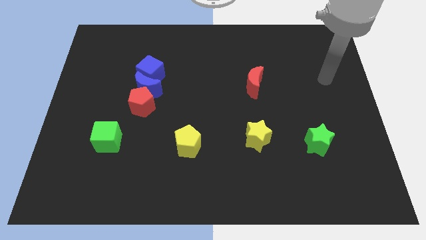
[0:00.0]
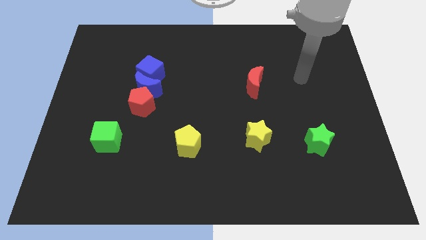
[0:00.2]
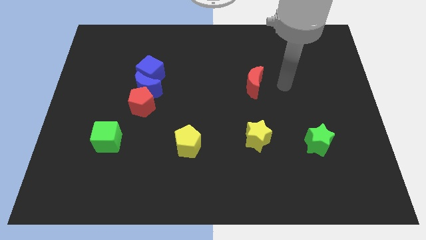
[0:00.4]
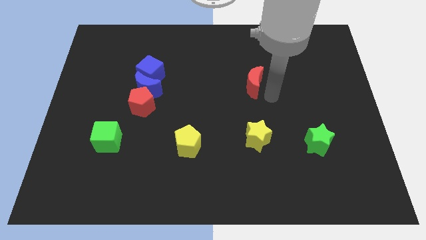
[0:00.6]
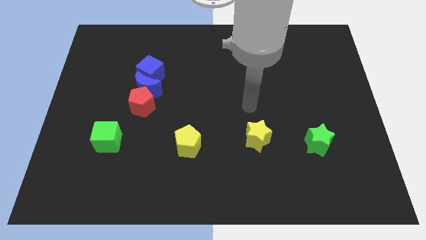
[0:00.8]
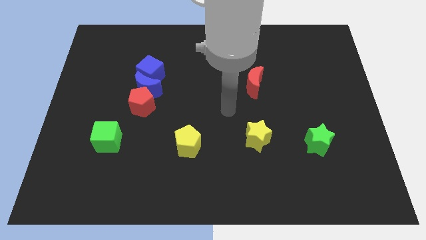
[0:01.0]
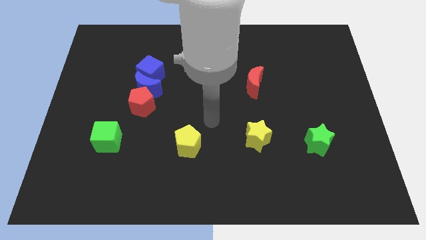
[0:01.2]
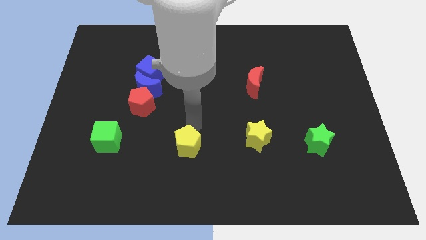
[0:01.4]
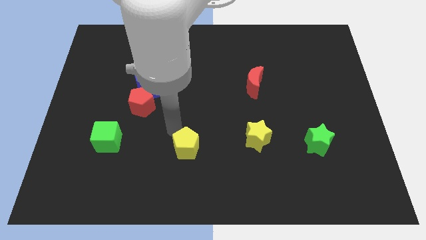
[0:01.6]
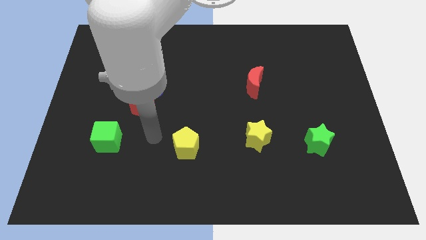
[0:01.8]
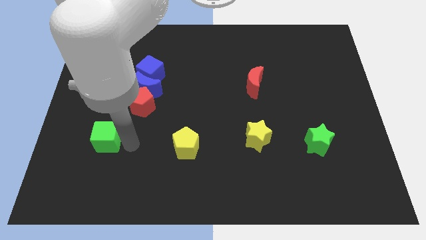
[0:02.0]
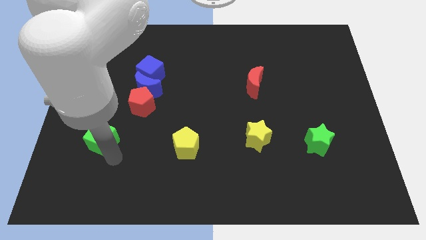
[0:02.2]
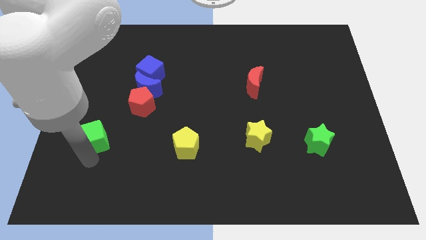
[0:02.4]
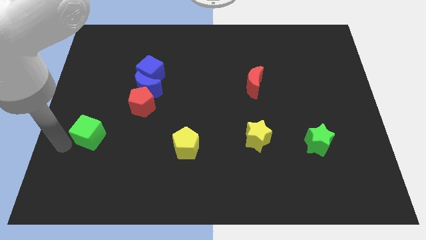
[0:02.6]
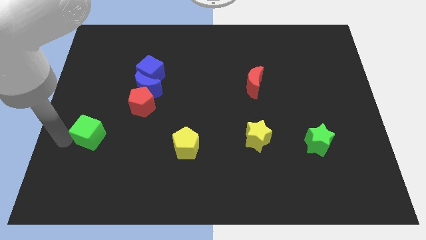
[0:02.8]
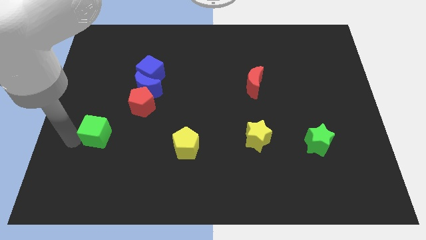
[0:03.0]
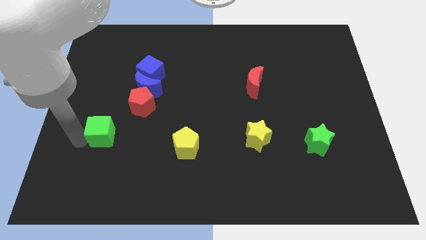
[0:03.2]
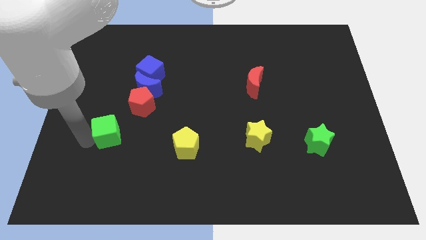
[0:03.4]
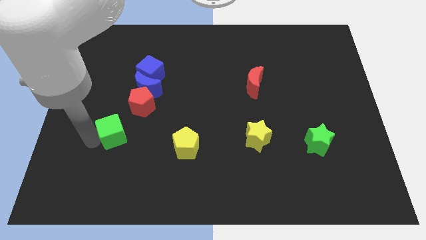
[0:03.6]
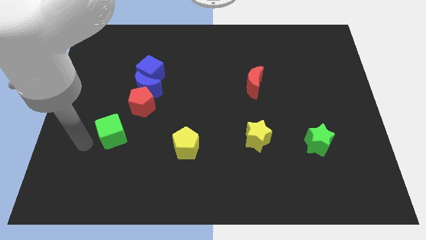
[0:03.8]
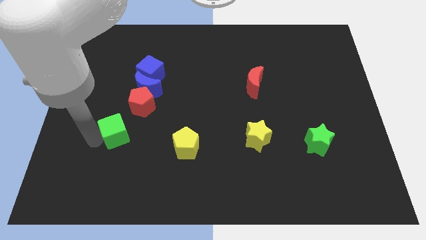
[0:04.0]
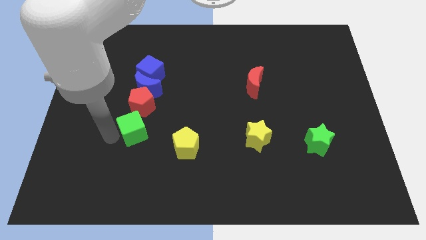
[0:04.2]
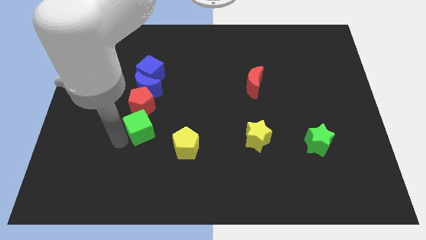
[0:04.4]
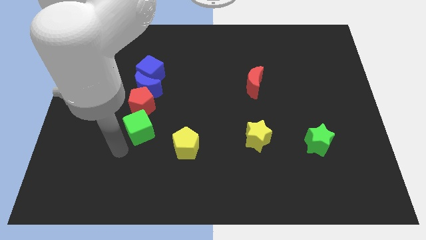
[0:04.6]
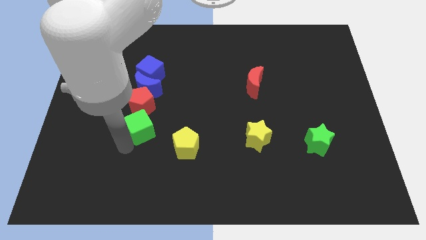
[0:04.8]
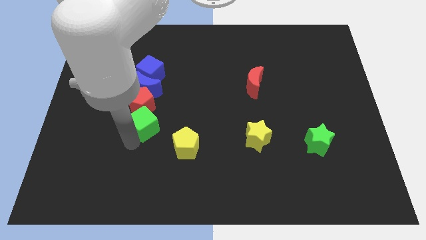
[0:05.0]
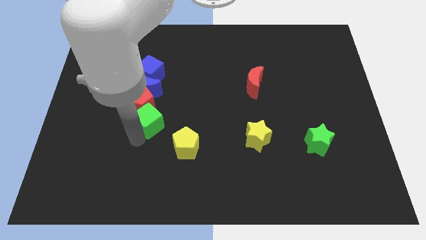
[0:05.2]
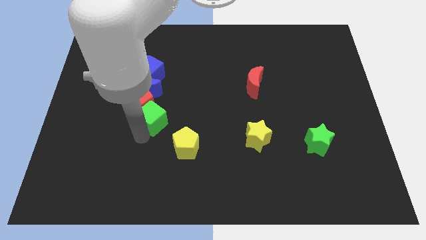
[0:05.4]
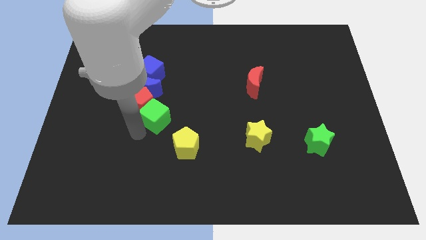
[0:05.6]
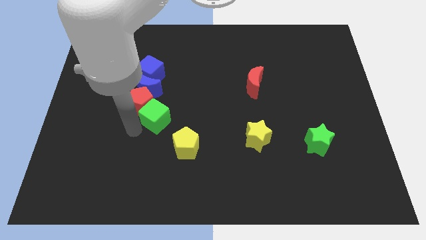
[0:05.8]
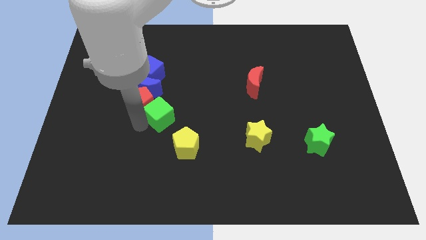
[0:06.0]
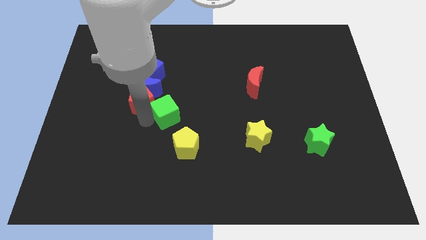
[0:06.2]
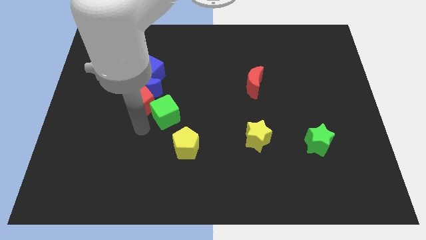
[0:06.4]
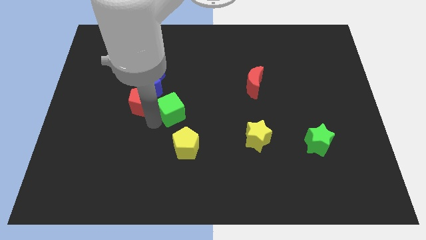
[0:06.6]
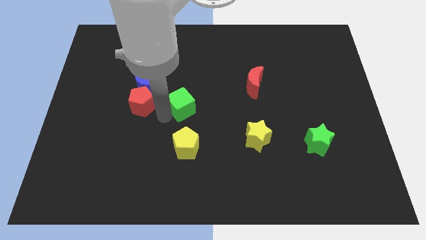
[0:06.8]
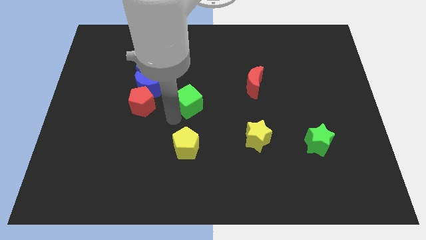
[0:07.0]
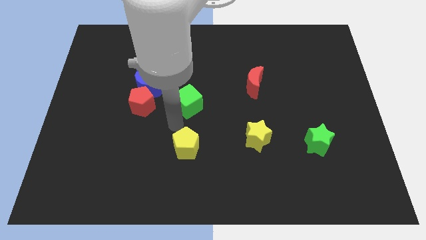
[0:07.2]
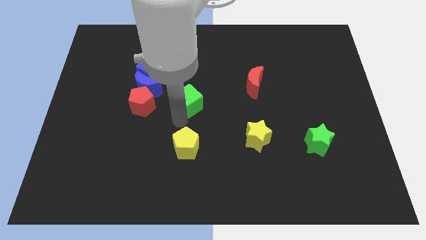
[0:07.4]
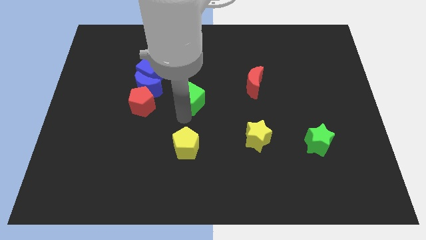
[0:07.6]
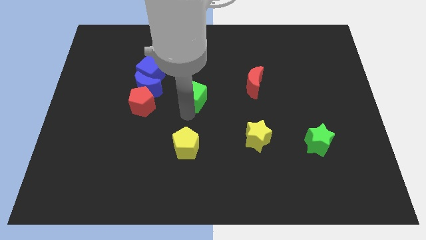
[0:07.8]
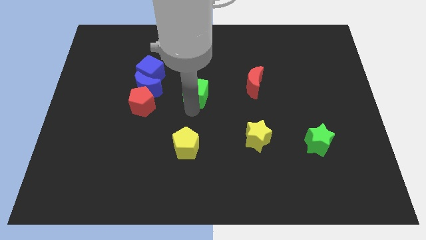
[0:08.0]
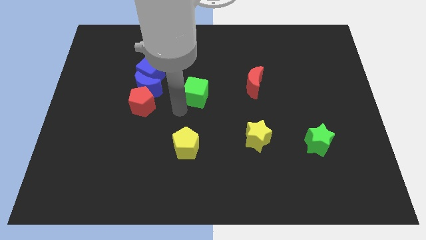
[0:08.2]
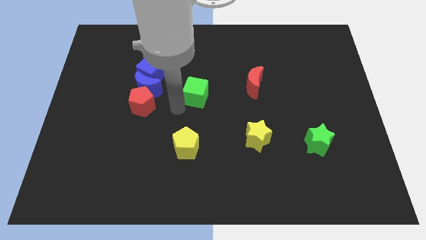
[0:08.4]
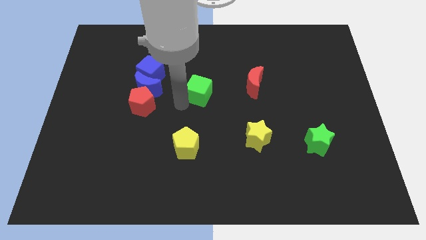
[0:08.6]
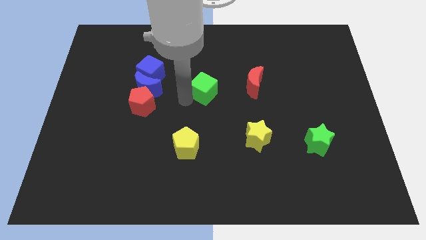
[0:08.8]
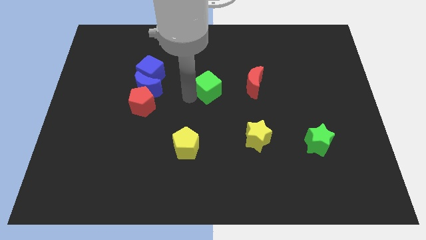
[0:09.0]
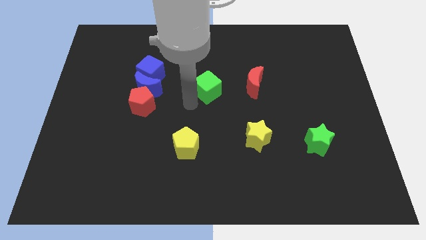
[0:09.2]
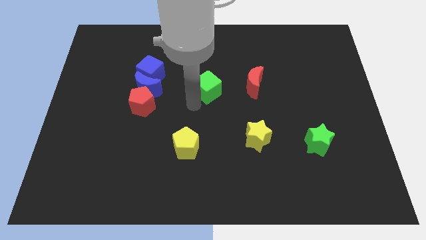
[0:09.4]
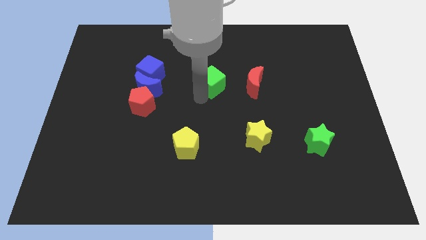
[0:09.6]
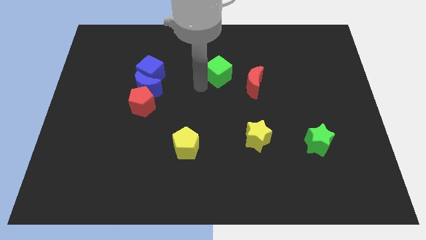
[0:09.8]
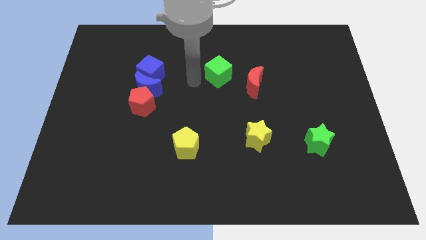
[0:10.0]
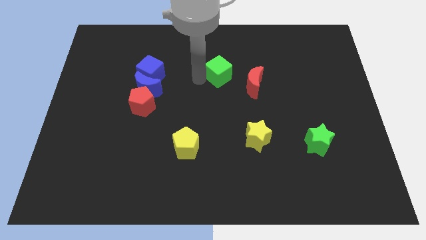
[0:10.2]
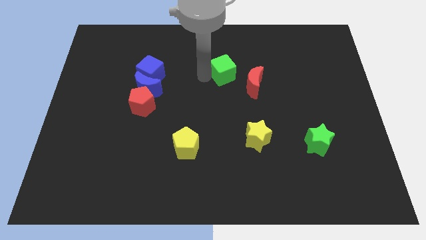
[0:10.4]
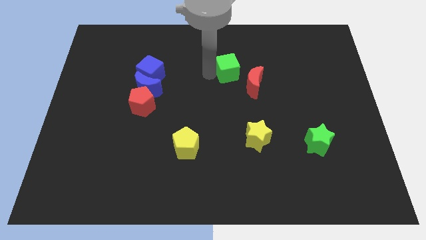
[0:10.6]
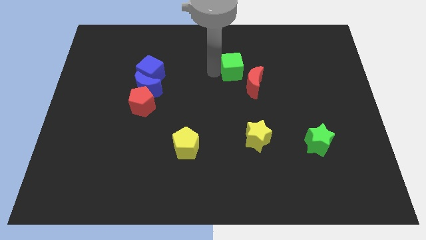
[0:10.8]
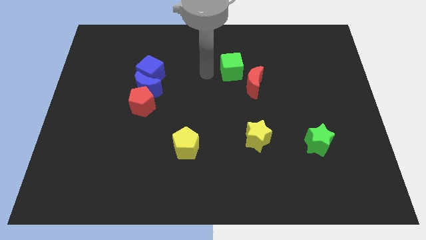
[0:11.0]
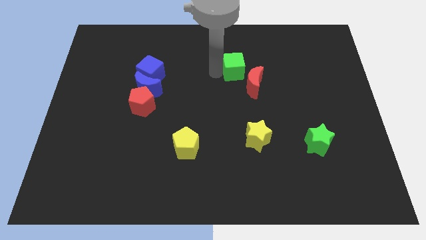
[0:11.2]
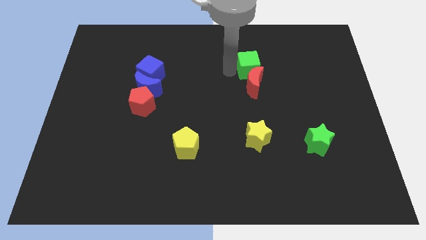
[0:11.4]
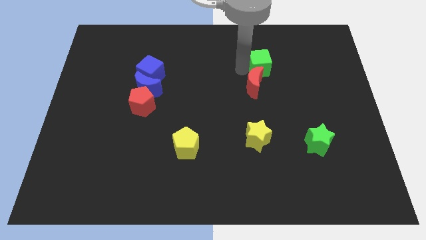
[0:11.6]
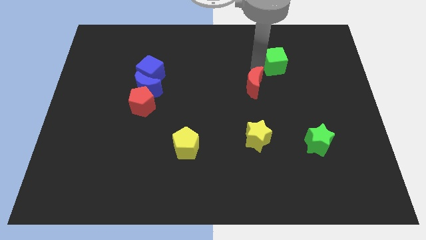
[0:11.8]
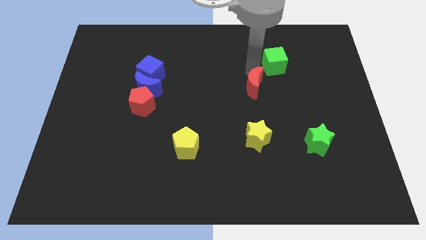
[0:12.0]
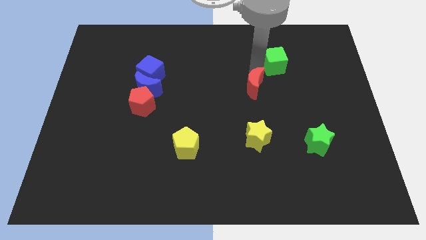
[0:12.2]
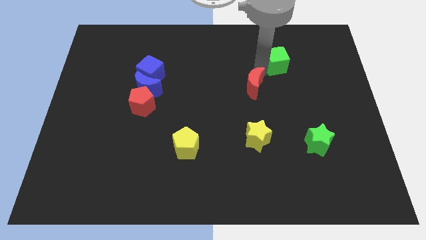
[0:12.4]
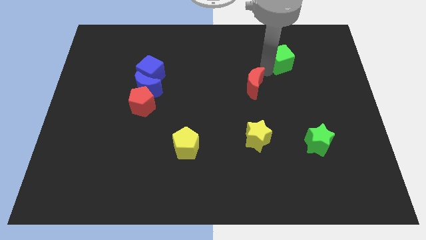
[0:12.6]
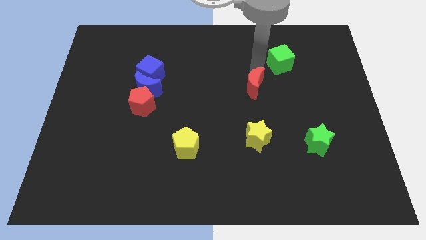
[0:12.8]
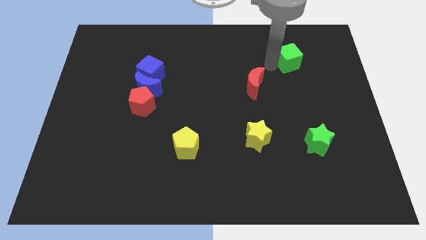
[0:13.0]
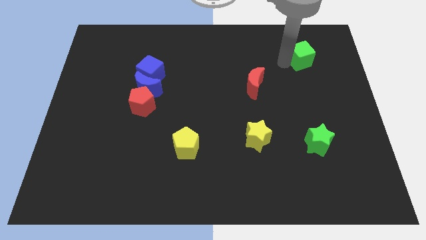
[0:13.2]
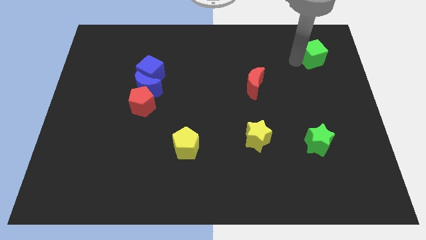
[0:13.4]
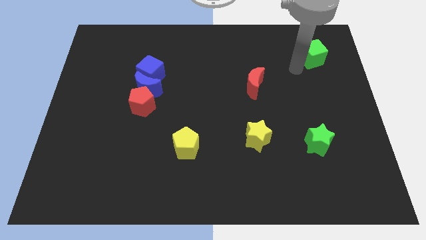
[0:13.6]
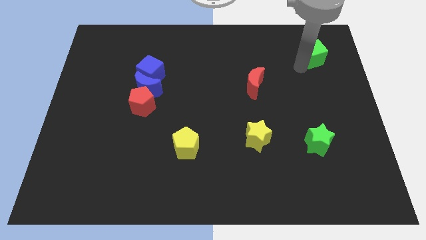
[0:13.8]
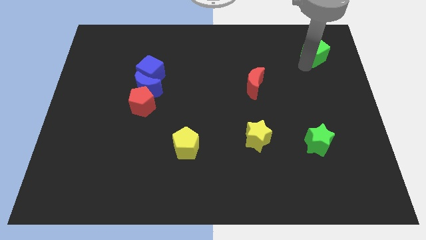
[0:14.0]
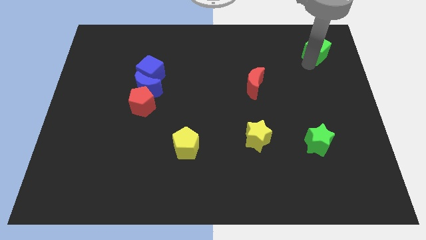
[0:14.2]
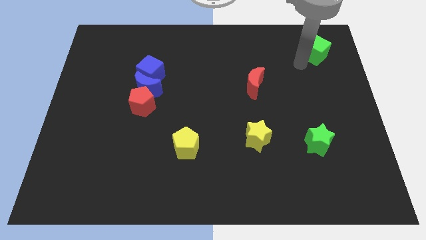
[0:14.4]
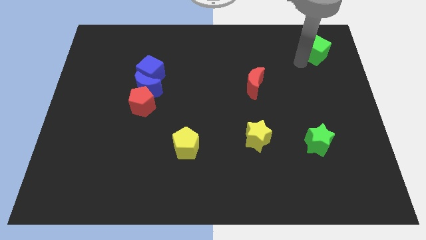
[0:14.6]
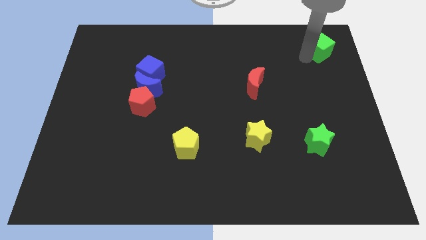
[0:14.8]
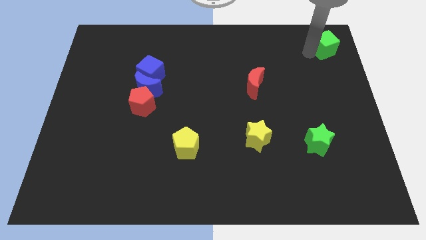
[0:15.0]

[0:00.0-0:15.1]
push the green cube to the top right of the board
